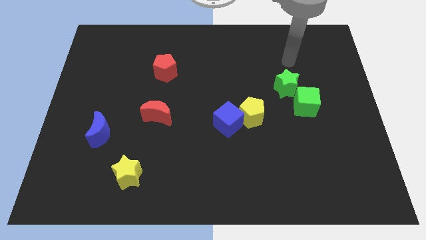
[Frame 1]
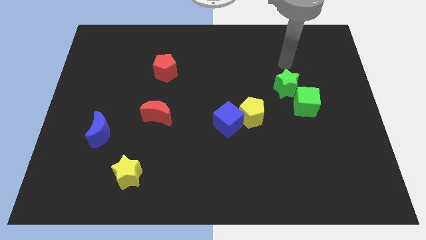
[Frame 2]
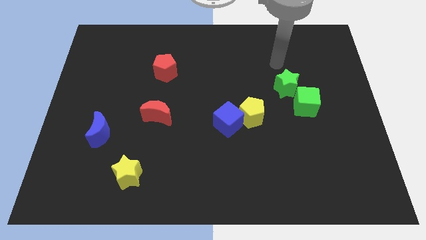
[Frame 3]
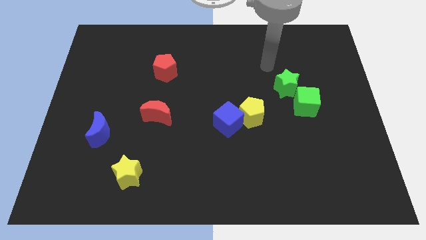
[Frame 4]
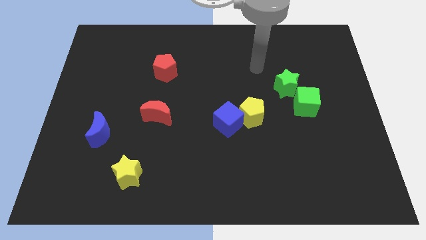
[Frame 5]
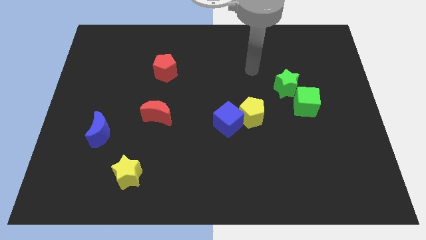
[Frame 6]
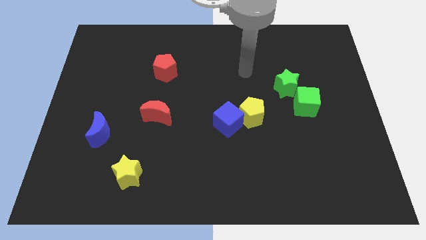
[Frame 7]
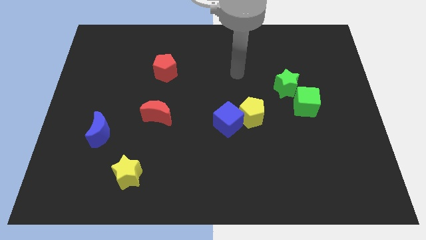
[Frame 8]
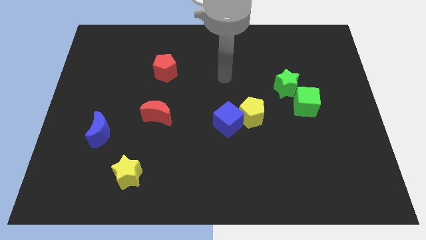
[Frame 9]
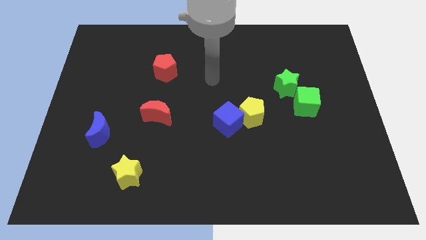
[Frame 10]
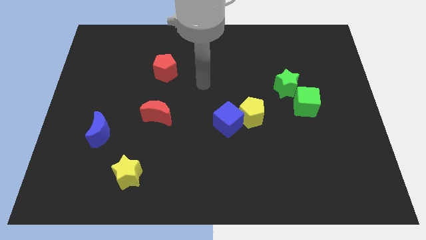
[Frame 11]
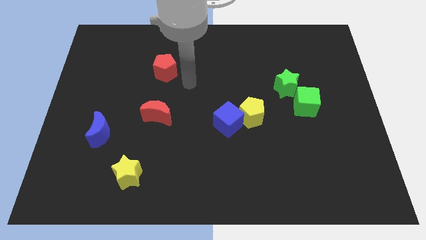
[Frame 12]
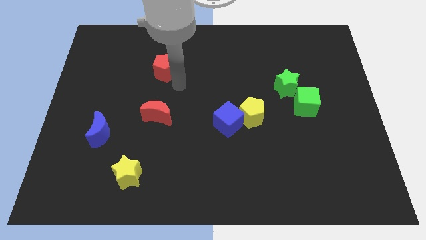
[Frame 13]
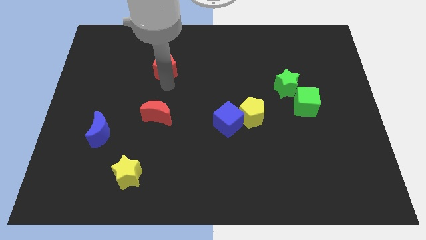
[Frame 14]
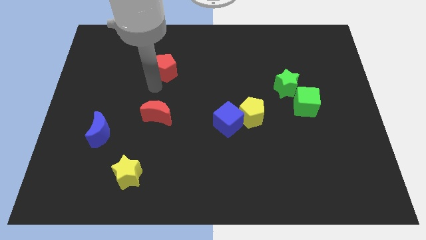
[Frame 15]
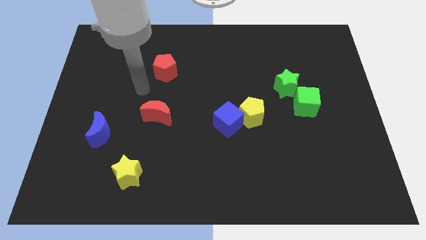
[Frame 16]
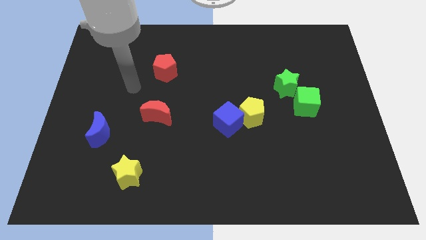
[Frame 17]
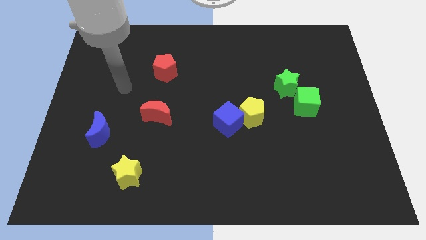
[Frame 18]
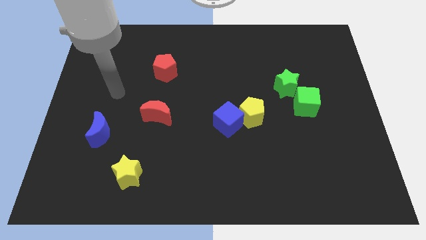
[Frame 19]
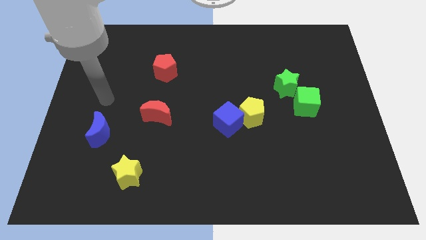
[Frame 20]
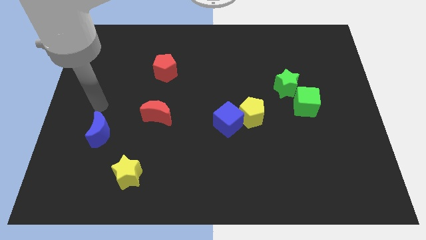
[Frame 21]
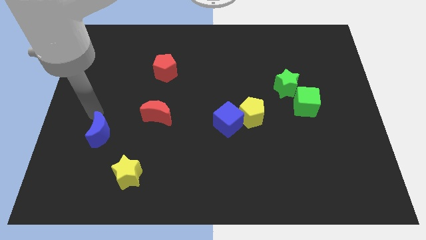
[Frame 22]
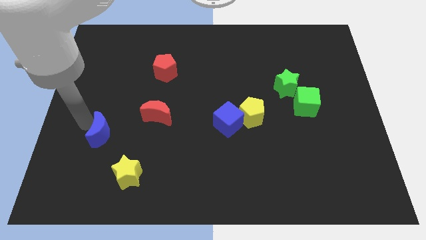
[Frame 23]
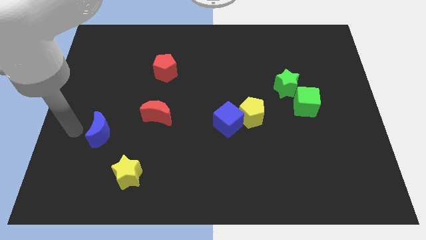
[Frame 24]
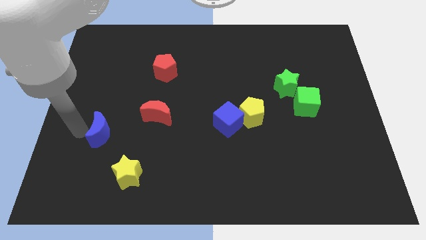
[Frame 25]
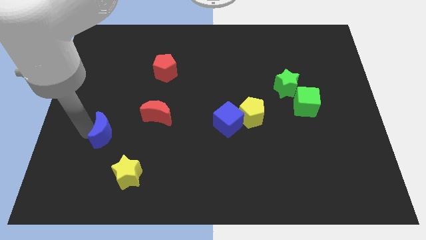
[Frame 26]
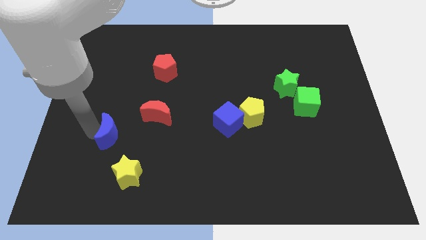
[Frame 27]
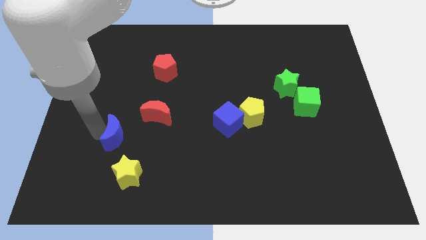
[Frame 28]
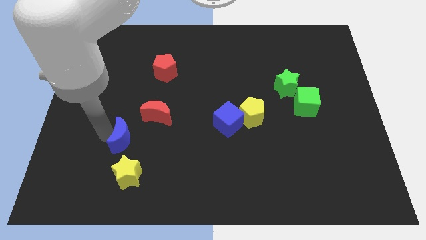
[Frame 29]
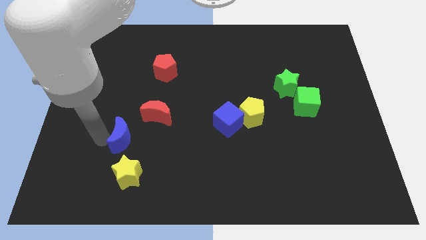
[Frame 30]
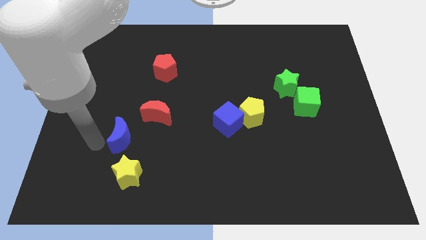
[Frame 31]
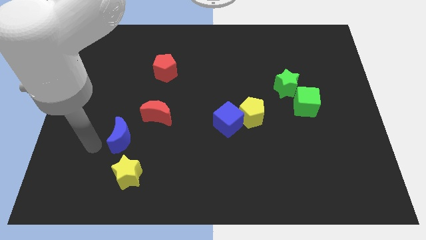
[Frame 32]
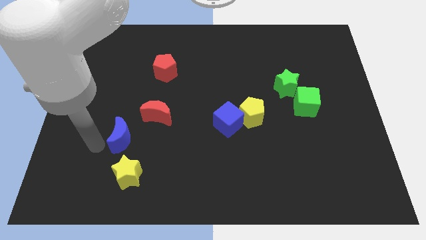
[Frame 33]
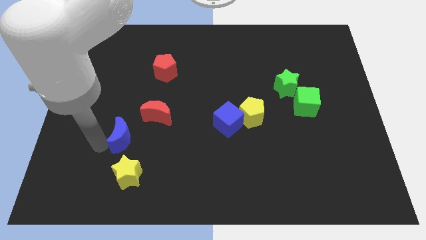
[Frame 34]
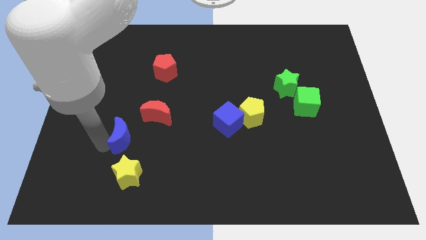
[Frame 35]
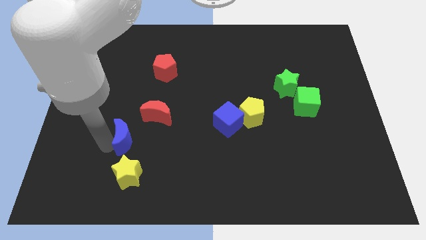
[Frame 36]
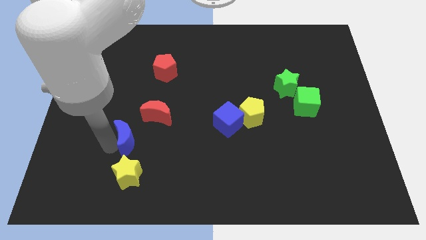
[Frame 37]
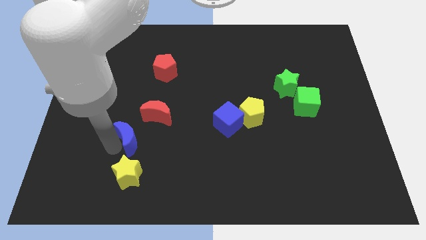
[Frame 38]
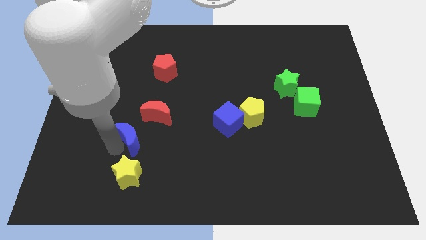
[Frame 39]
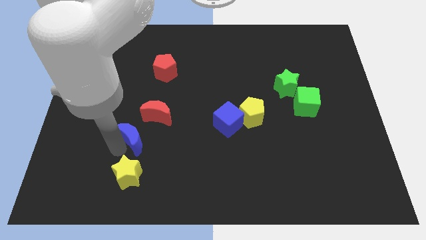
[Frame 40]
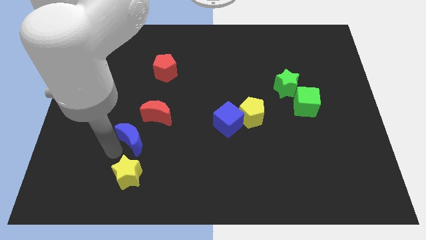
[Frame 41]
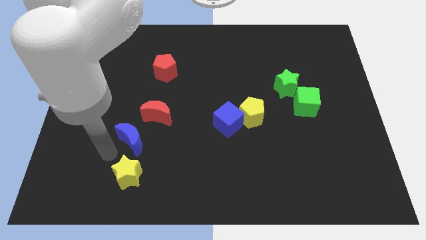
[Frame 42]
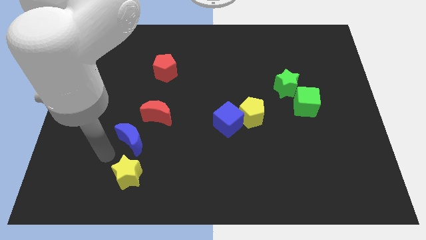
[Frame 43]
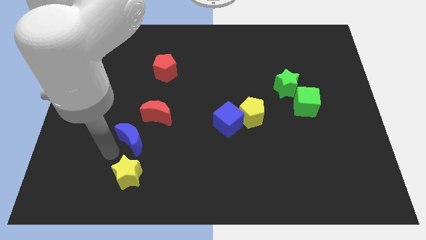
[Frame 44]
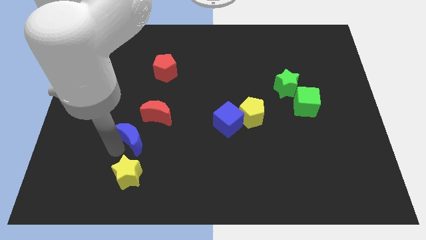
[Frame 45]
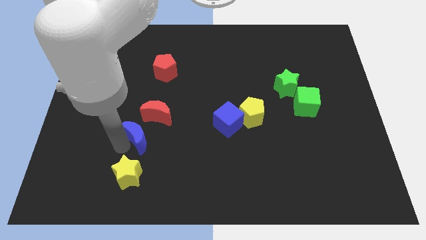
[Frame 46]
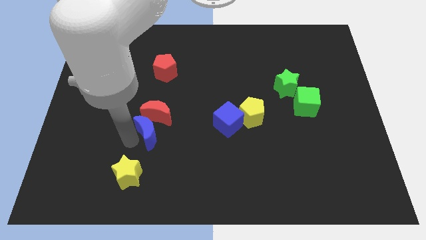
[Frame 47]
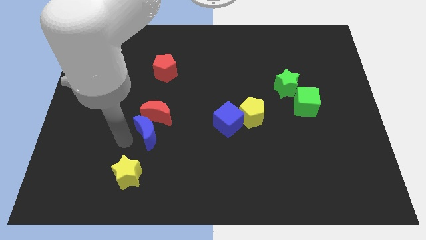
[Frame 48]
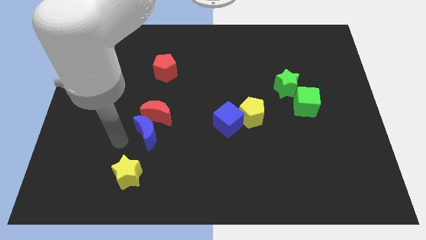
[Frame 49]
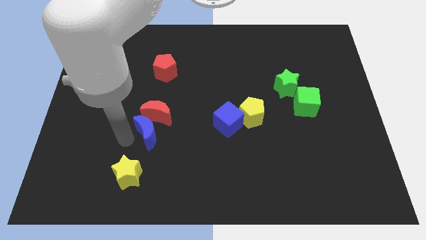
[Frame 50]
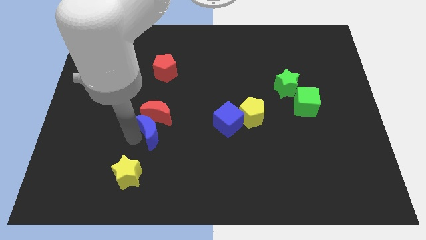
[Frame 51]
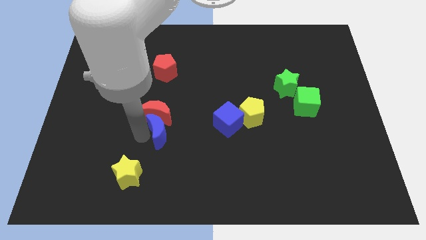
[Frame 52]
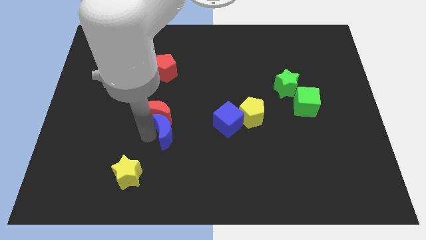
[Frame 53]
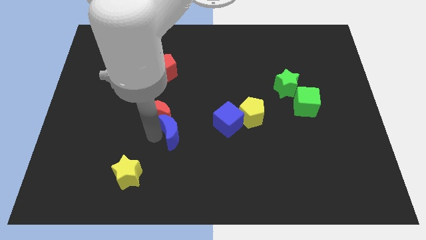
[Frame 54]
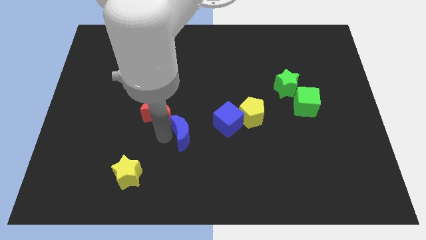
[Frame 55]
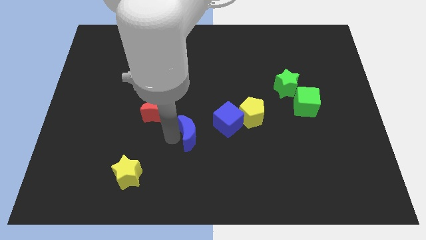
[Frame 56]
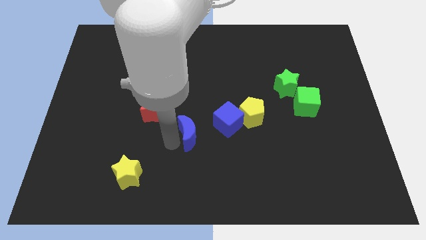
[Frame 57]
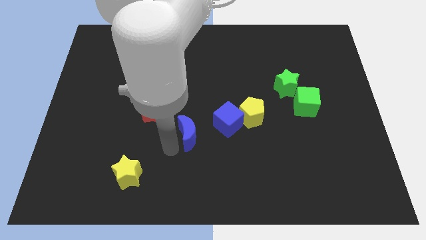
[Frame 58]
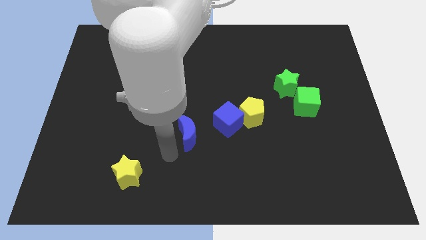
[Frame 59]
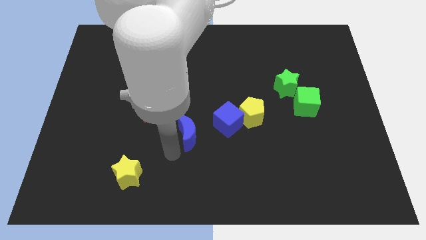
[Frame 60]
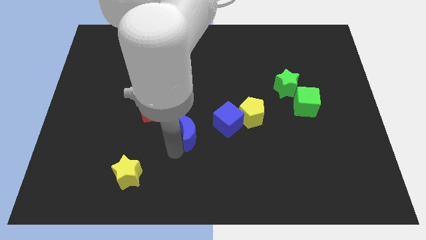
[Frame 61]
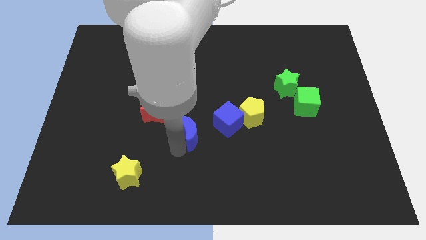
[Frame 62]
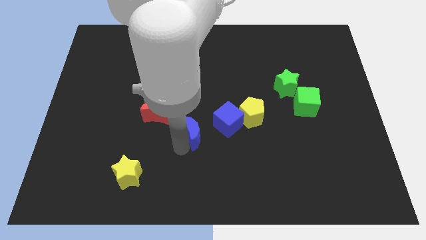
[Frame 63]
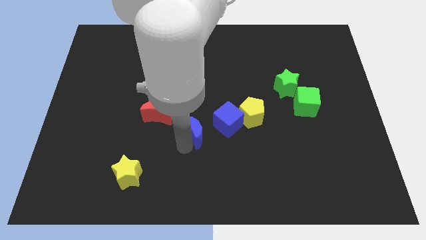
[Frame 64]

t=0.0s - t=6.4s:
slide the blue moon to the left of the yellow pentagon

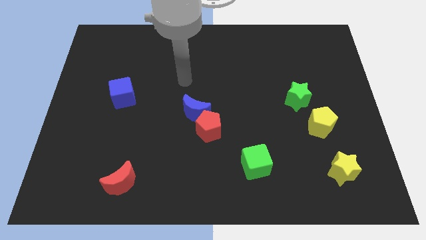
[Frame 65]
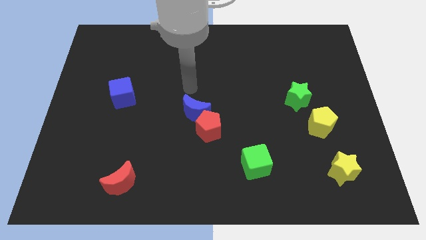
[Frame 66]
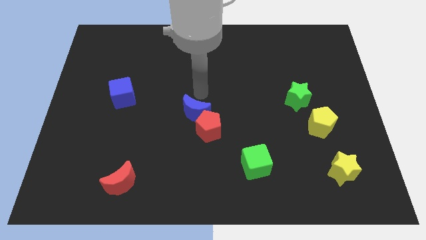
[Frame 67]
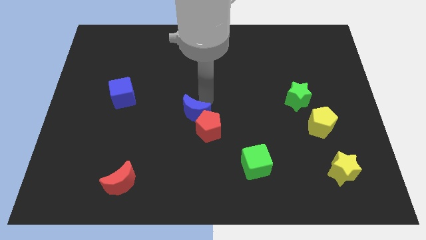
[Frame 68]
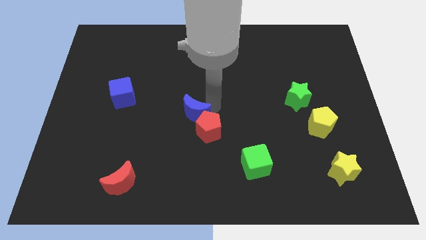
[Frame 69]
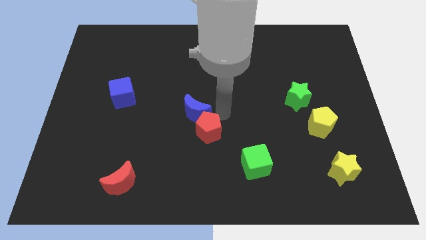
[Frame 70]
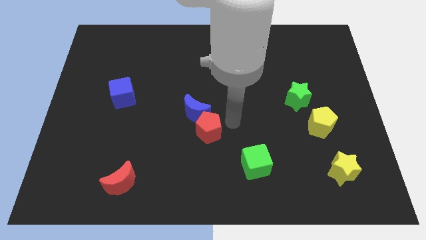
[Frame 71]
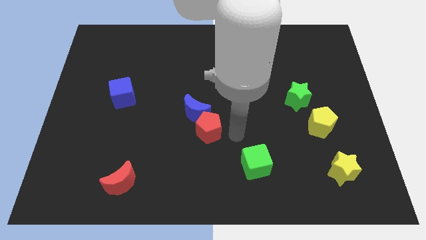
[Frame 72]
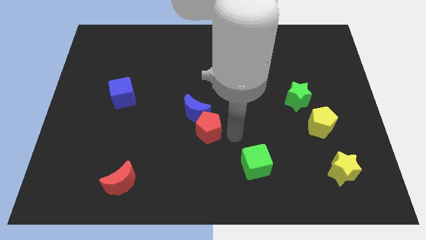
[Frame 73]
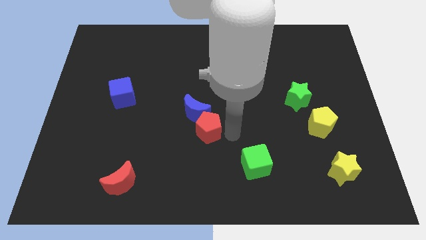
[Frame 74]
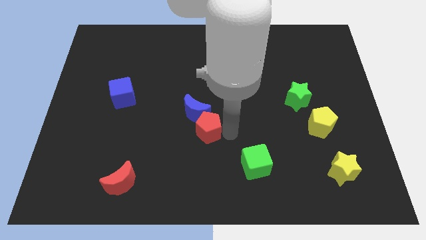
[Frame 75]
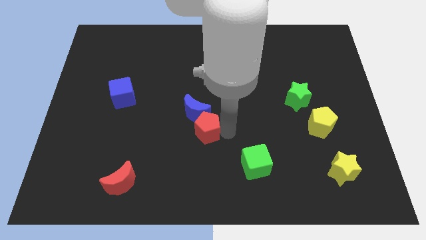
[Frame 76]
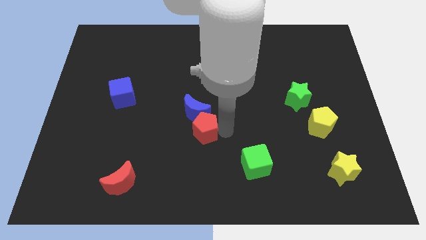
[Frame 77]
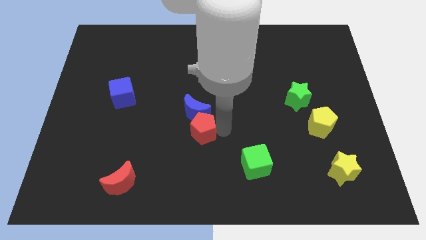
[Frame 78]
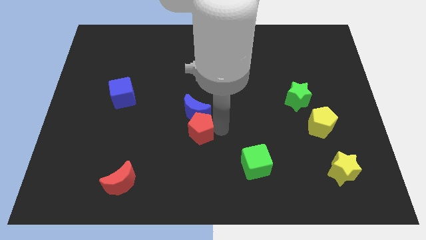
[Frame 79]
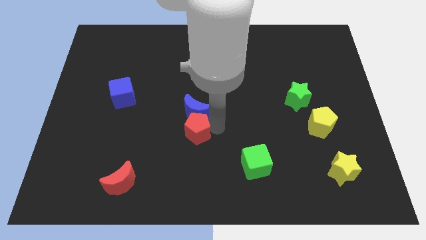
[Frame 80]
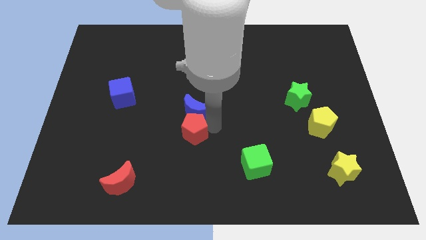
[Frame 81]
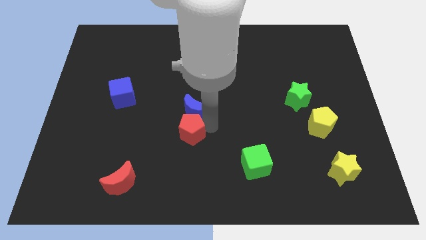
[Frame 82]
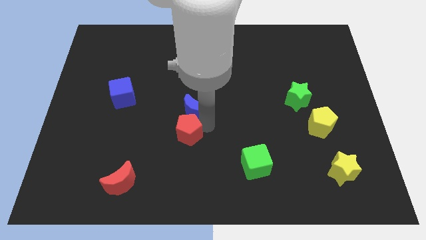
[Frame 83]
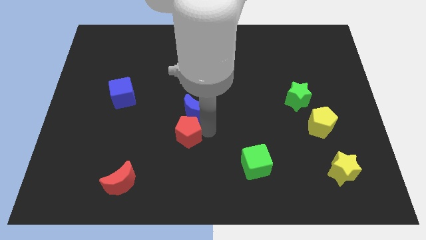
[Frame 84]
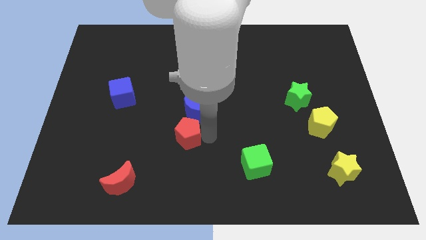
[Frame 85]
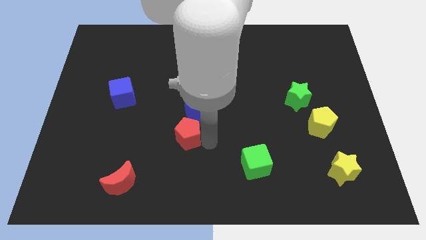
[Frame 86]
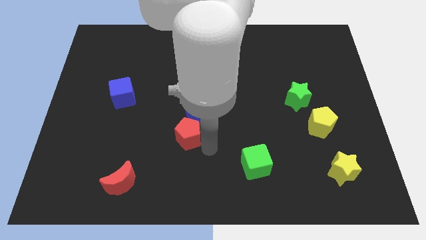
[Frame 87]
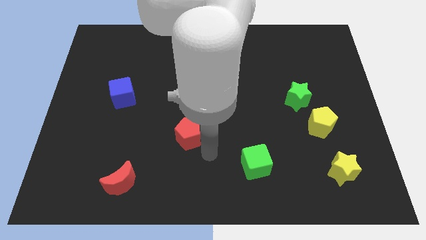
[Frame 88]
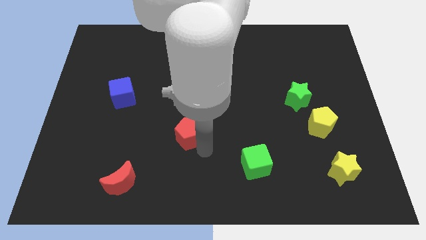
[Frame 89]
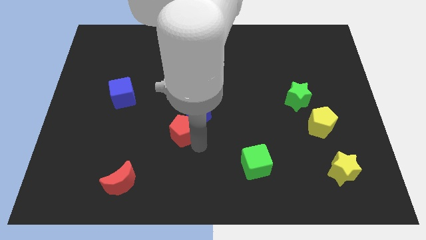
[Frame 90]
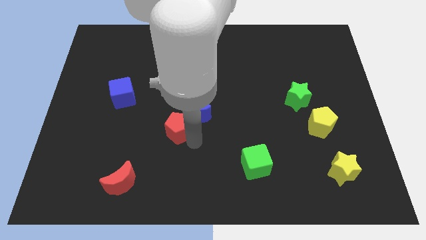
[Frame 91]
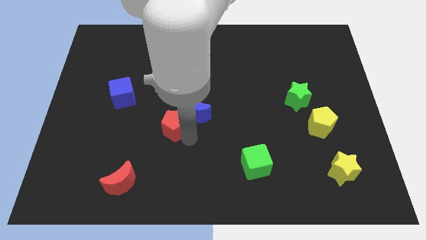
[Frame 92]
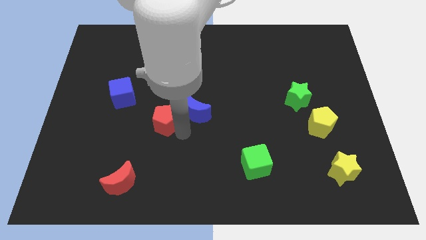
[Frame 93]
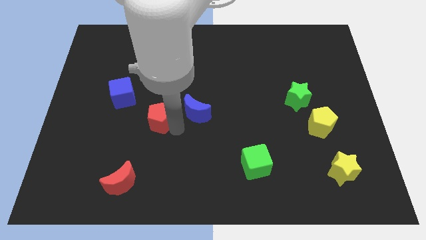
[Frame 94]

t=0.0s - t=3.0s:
put the red pentagon to the bottom right side of the blue cube
